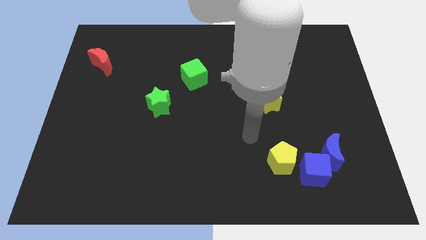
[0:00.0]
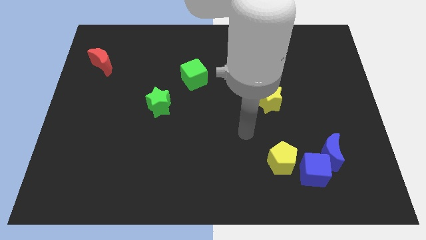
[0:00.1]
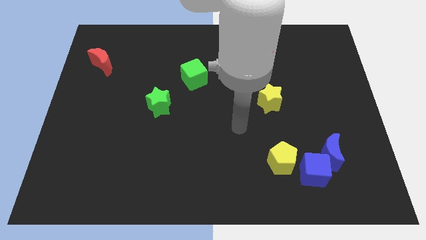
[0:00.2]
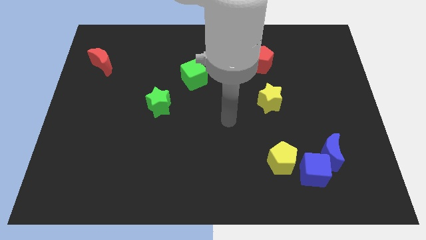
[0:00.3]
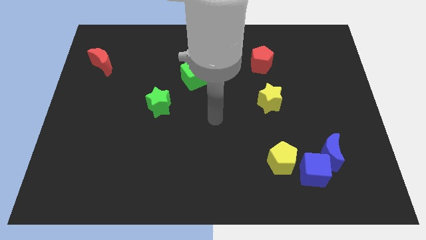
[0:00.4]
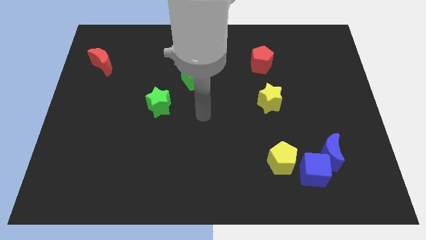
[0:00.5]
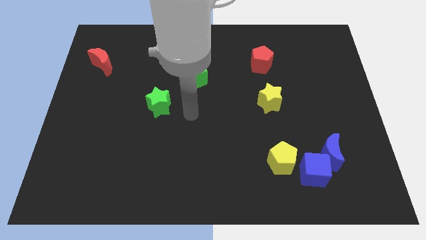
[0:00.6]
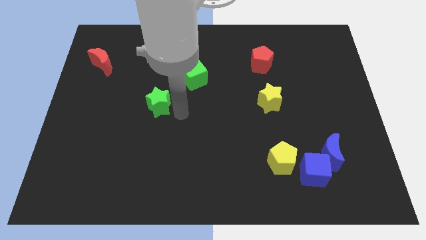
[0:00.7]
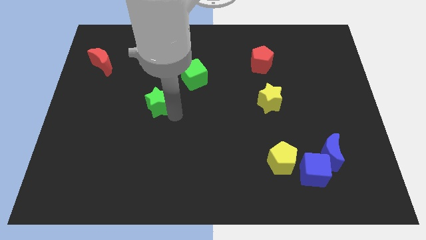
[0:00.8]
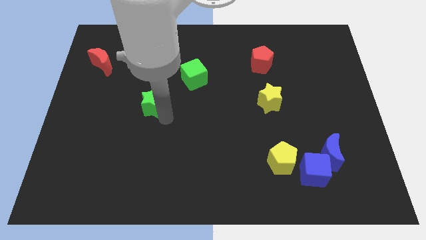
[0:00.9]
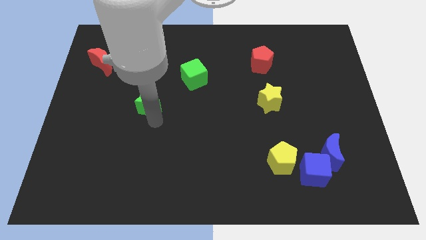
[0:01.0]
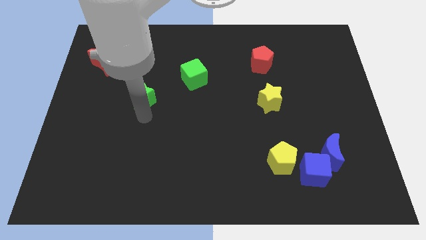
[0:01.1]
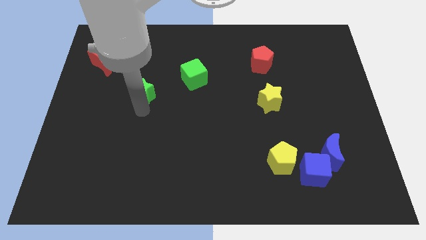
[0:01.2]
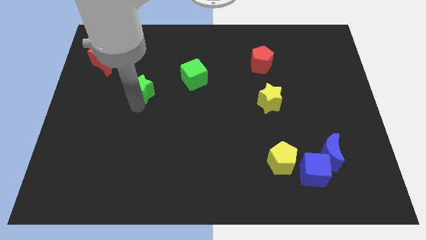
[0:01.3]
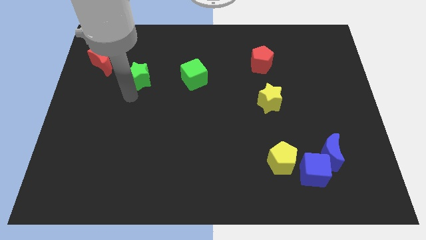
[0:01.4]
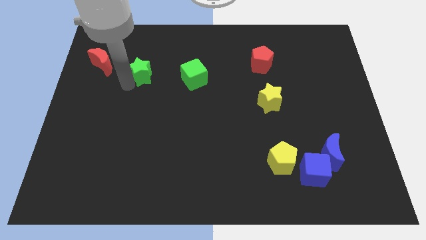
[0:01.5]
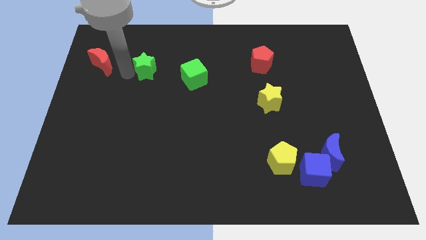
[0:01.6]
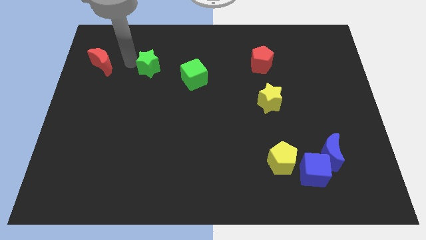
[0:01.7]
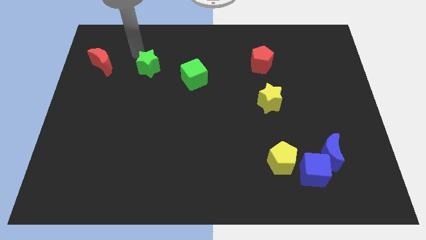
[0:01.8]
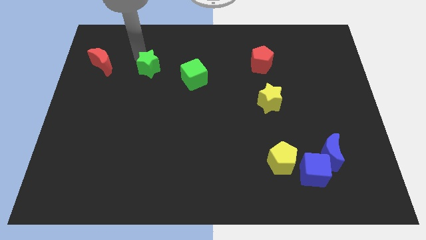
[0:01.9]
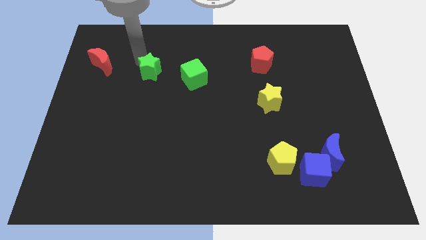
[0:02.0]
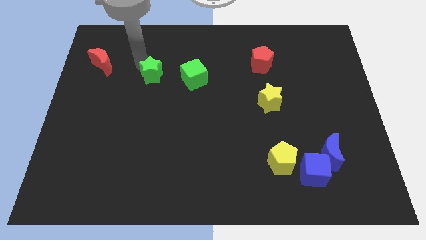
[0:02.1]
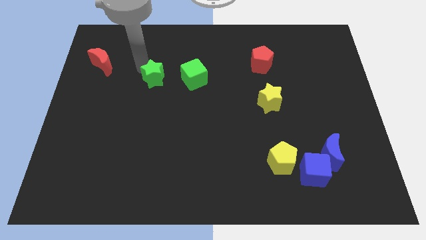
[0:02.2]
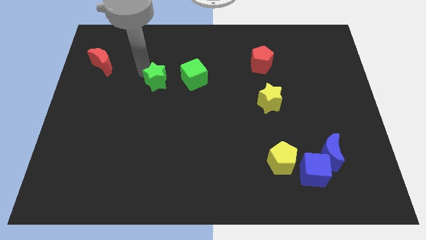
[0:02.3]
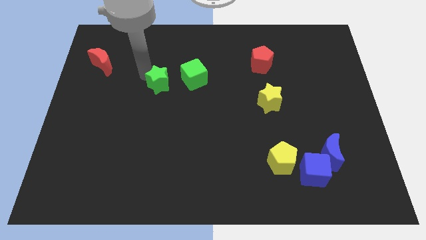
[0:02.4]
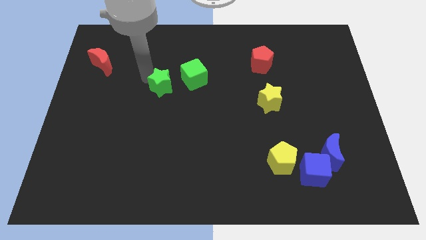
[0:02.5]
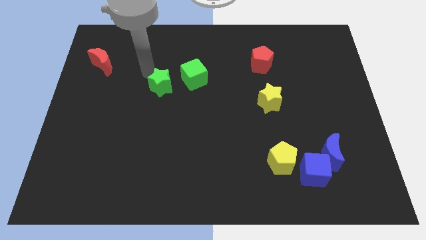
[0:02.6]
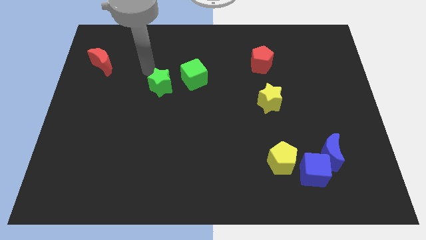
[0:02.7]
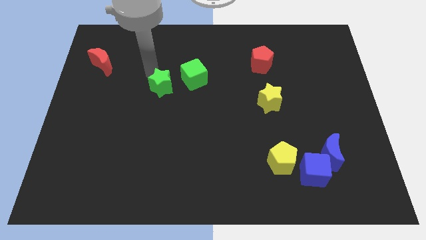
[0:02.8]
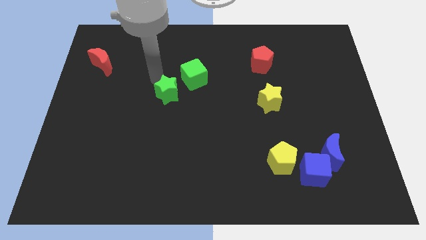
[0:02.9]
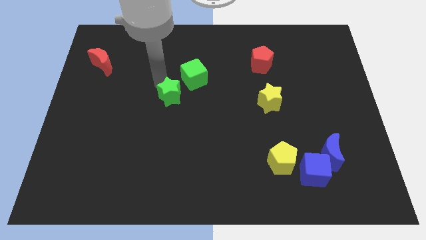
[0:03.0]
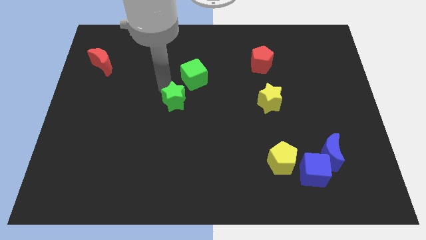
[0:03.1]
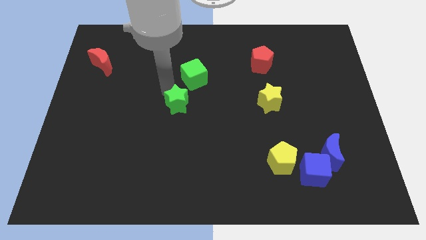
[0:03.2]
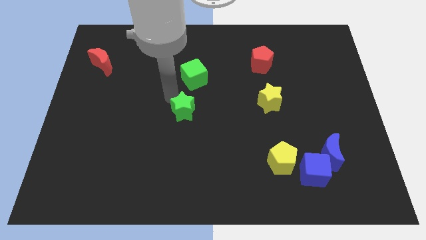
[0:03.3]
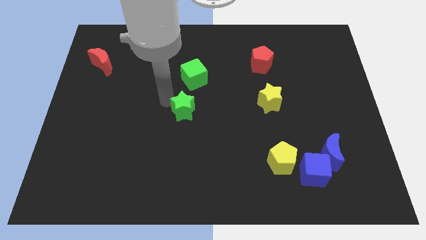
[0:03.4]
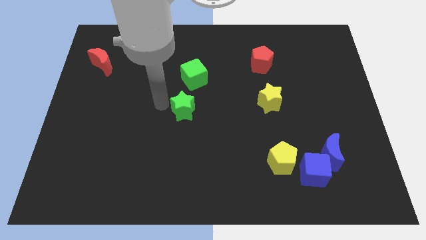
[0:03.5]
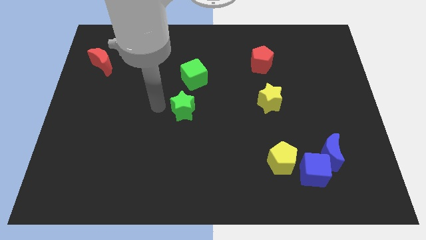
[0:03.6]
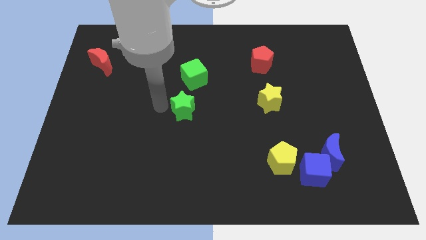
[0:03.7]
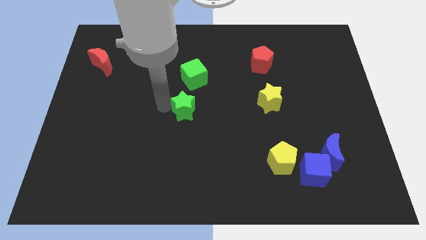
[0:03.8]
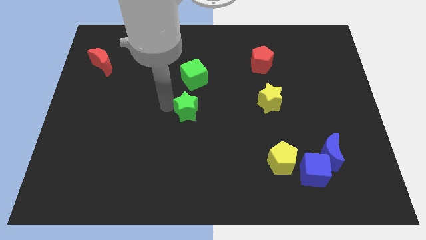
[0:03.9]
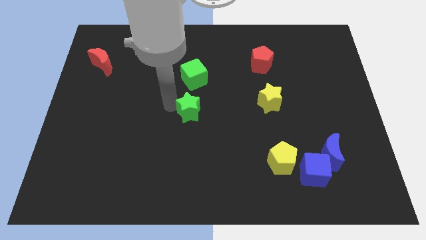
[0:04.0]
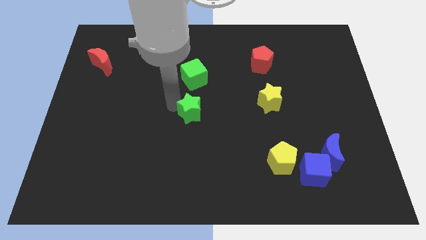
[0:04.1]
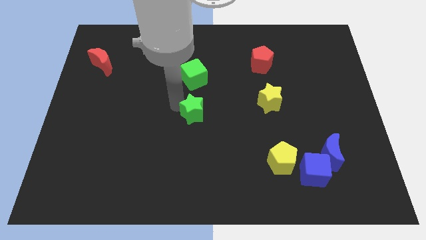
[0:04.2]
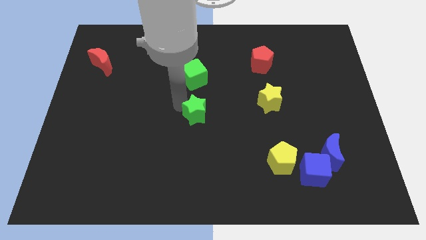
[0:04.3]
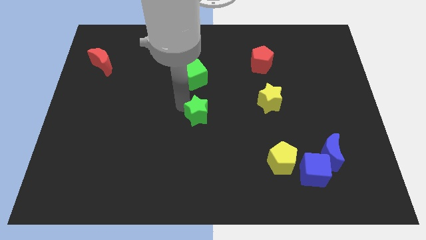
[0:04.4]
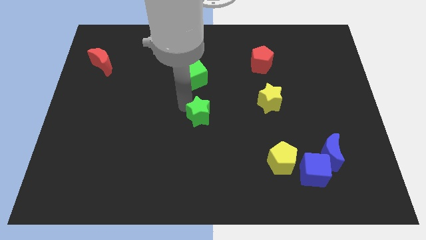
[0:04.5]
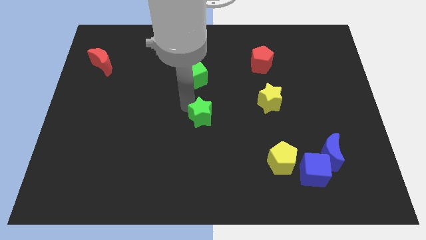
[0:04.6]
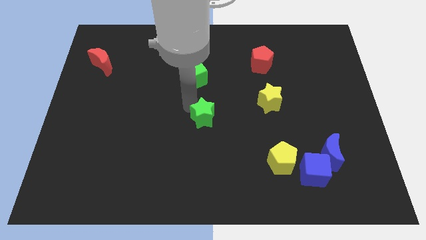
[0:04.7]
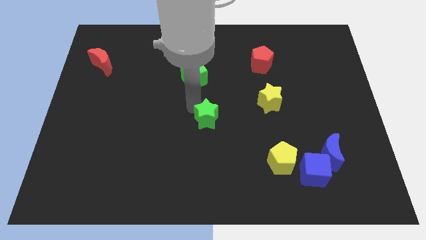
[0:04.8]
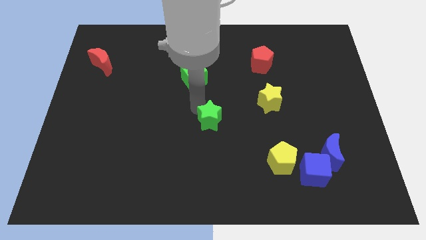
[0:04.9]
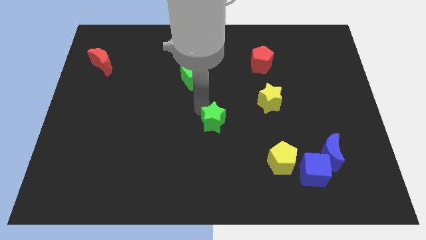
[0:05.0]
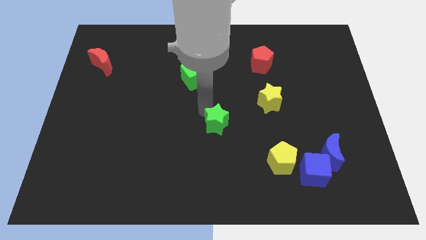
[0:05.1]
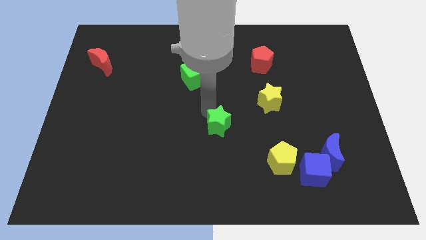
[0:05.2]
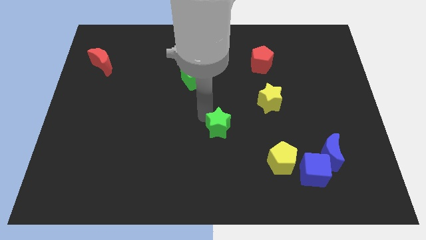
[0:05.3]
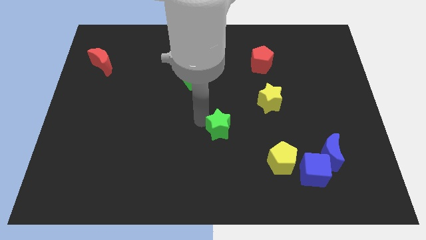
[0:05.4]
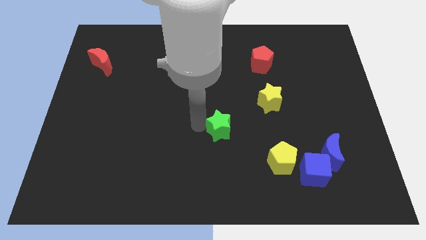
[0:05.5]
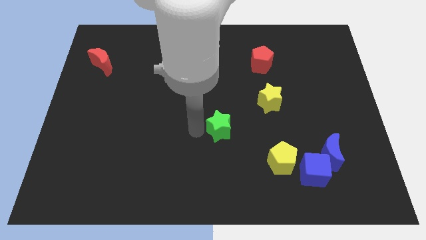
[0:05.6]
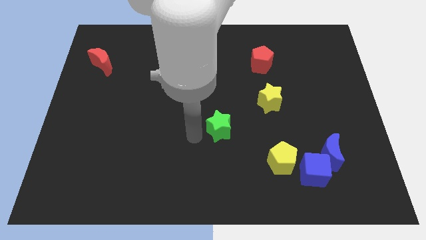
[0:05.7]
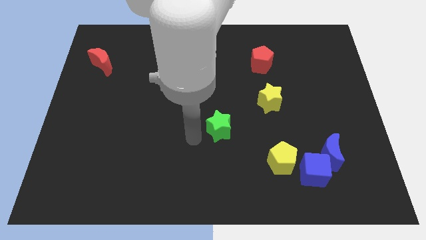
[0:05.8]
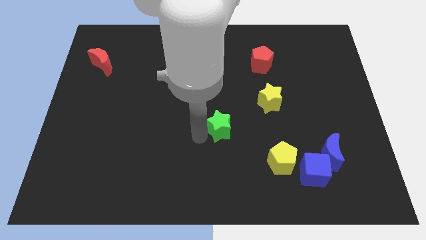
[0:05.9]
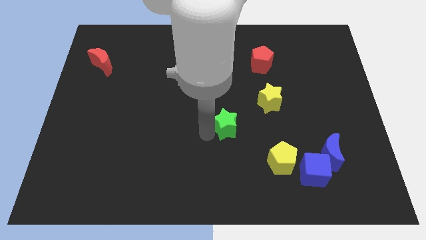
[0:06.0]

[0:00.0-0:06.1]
put the green star to the bottom left side of the yellow star

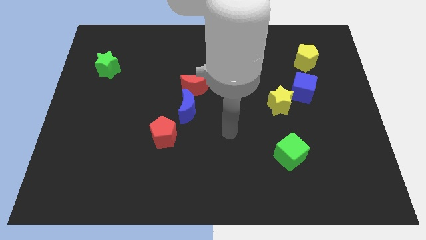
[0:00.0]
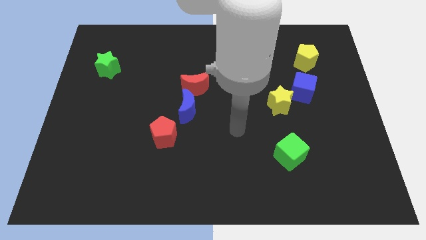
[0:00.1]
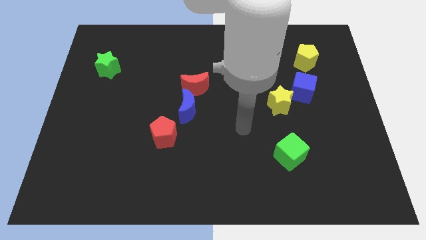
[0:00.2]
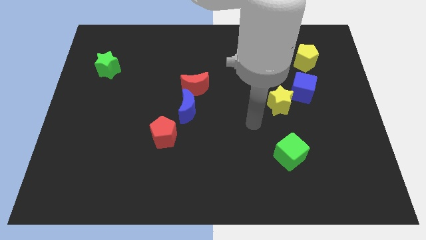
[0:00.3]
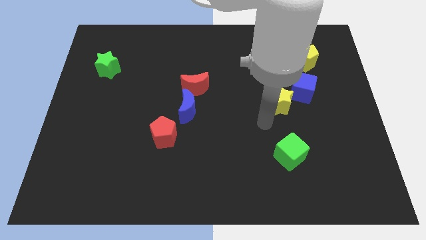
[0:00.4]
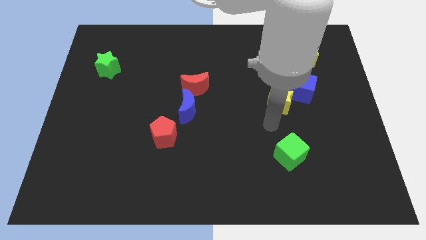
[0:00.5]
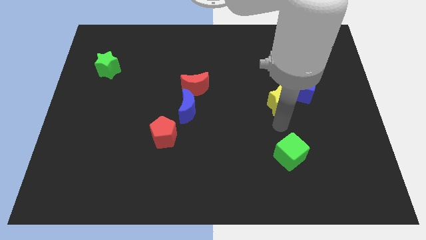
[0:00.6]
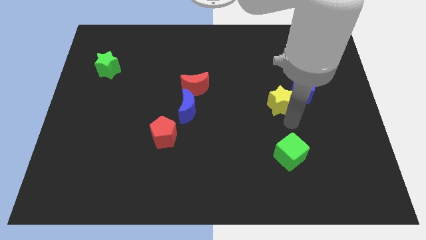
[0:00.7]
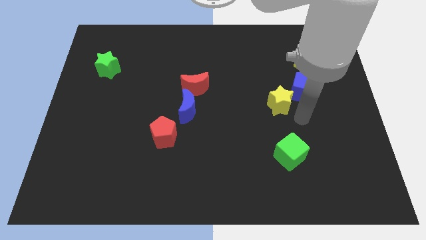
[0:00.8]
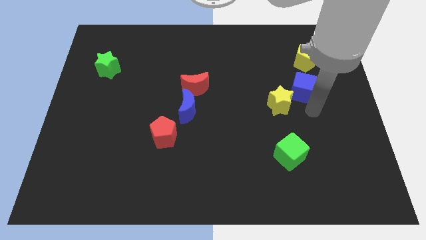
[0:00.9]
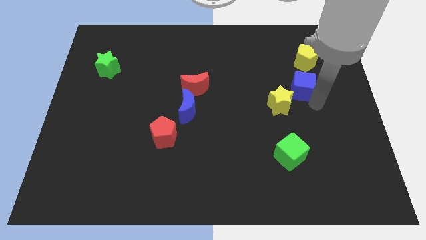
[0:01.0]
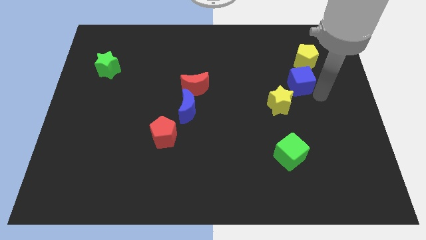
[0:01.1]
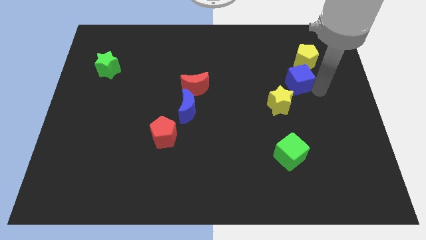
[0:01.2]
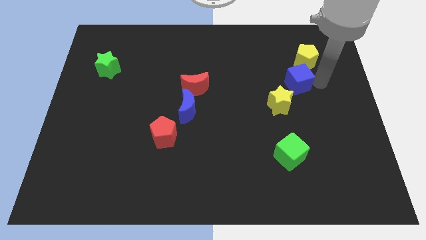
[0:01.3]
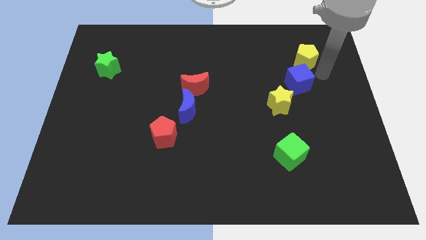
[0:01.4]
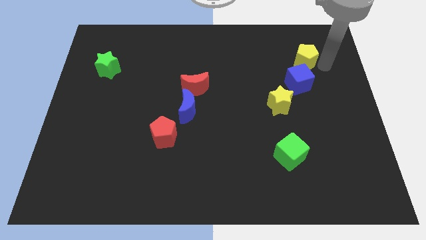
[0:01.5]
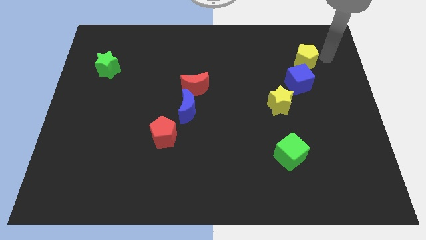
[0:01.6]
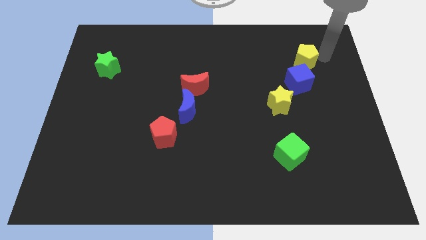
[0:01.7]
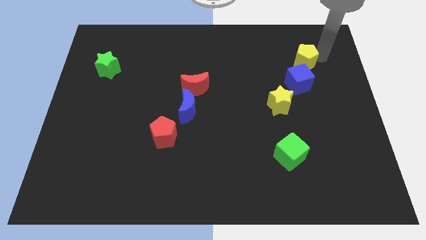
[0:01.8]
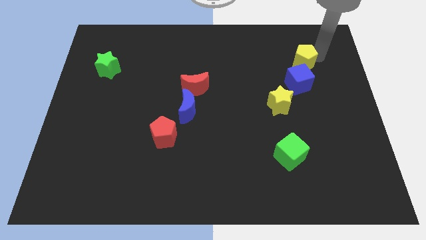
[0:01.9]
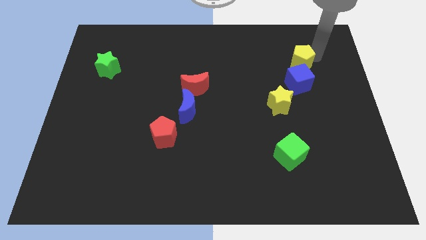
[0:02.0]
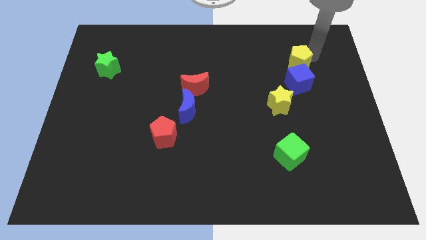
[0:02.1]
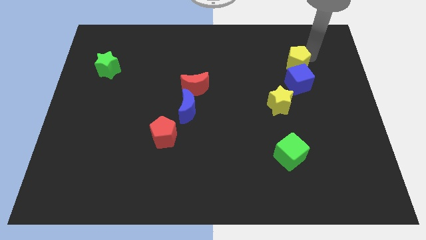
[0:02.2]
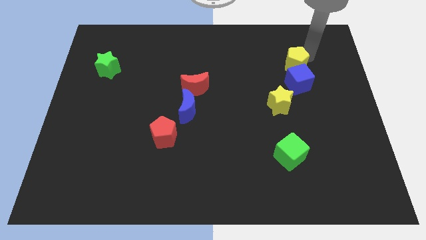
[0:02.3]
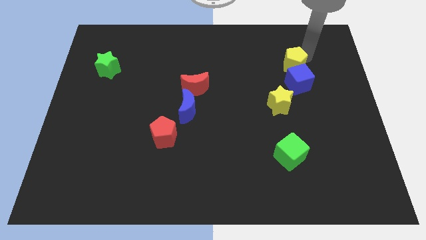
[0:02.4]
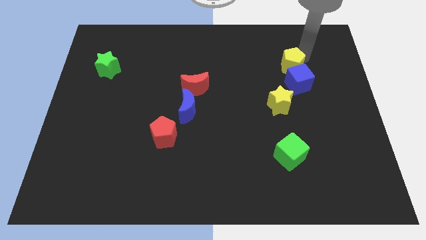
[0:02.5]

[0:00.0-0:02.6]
push the yellow pentagon to the top of the yellow star
